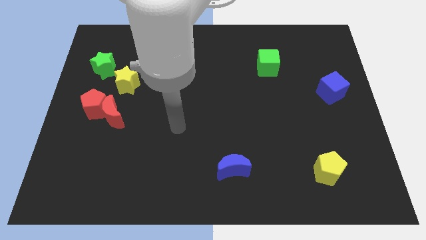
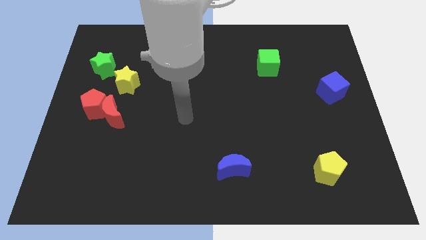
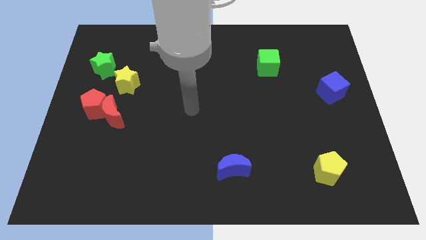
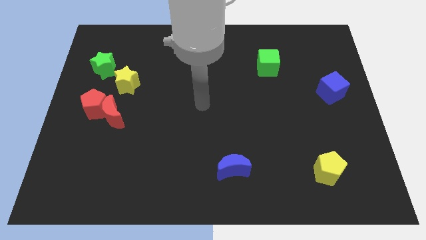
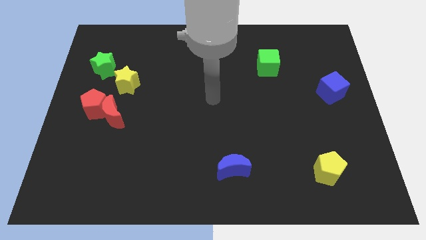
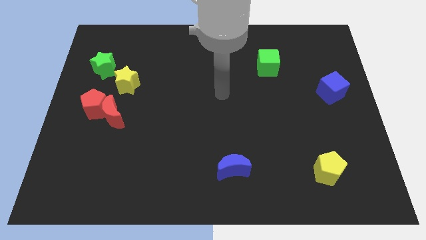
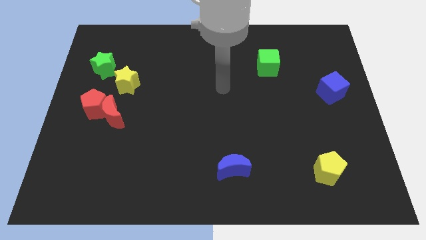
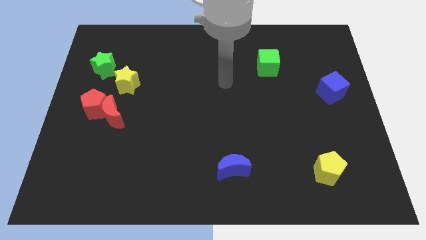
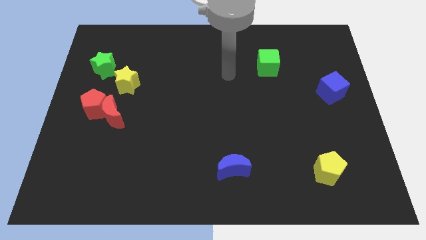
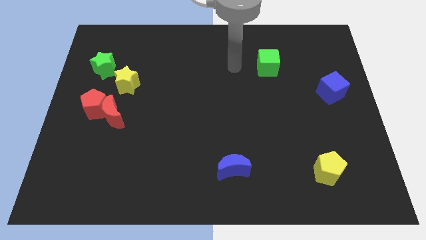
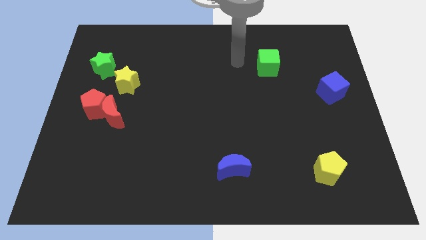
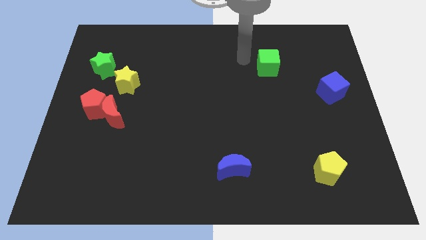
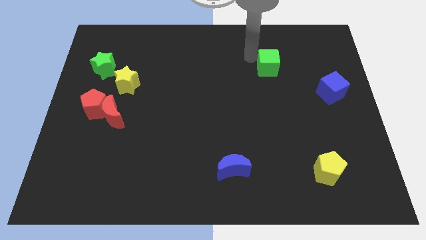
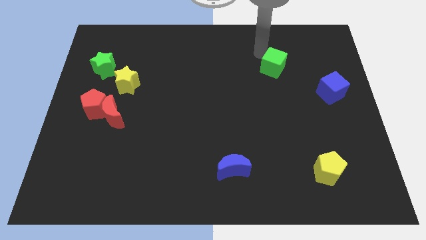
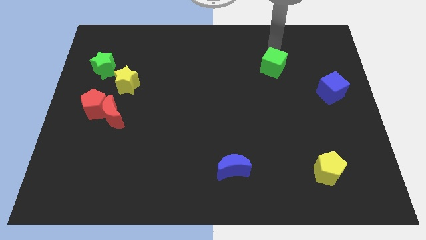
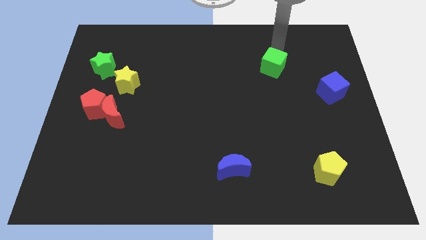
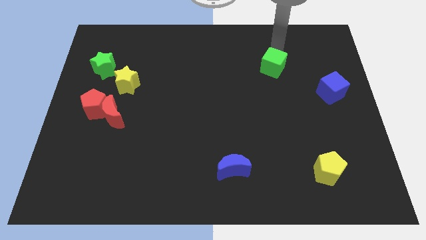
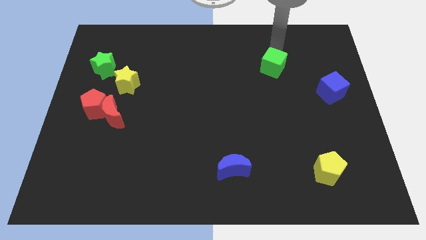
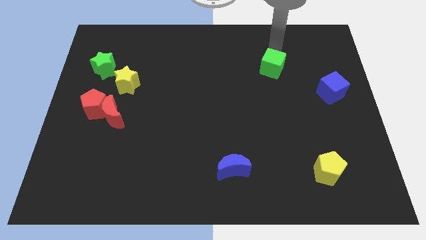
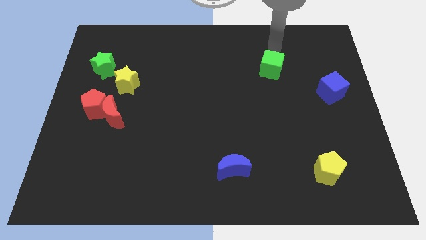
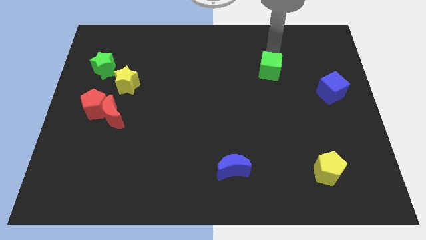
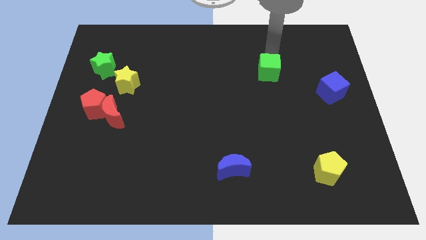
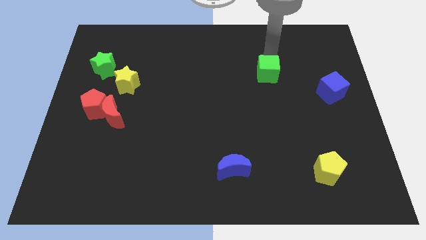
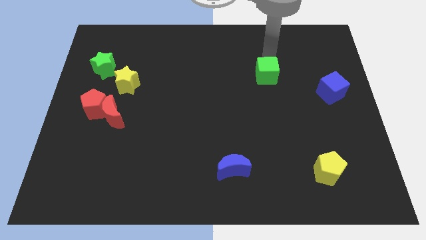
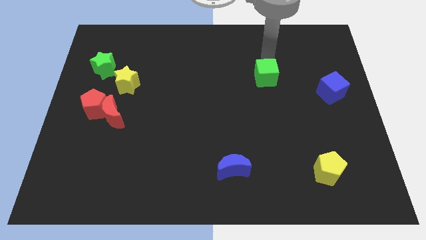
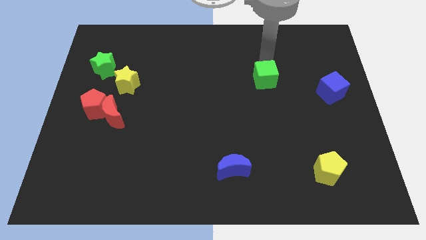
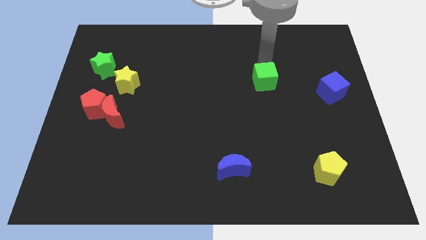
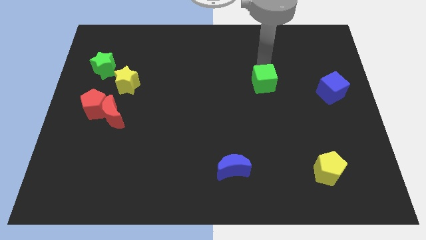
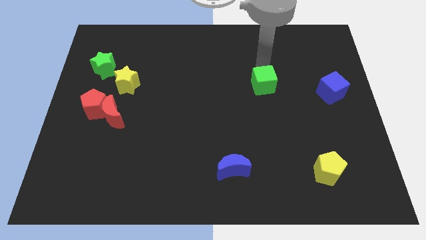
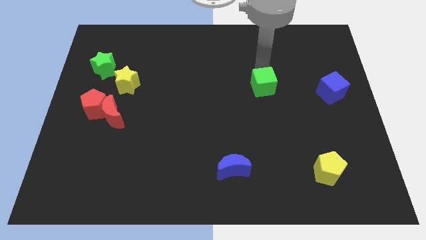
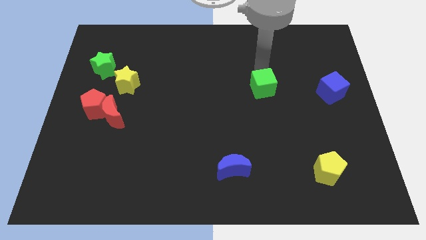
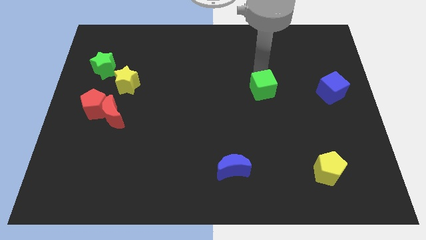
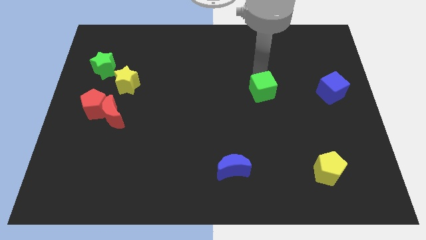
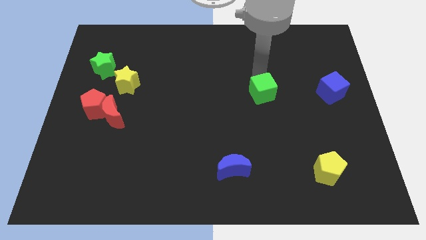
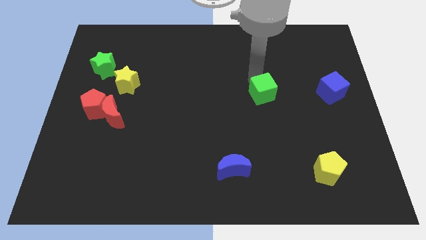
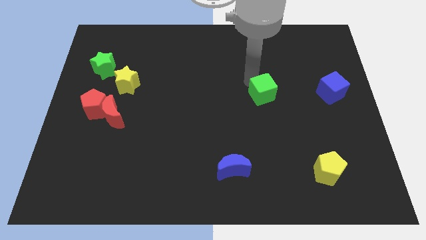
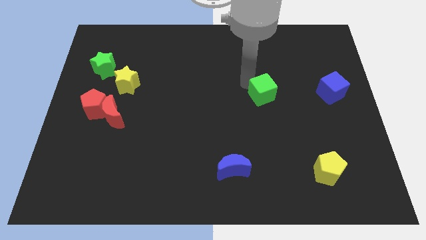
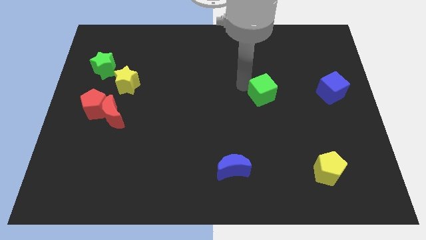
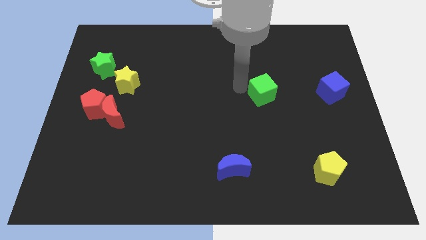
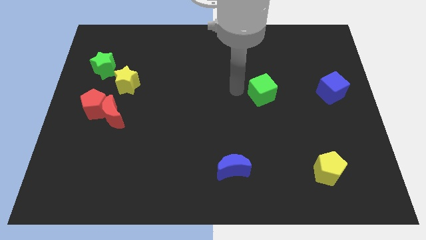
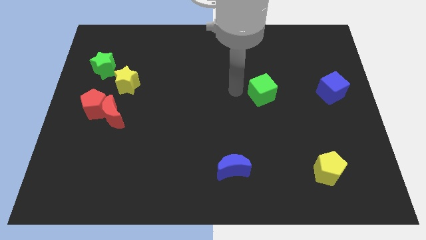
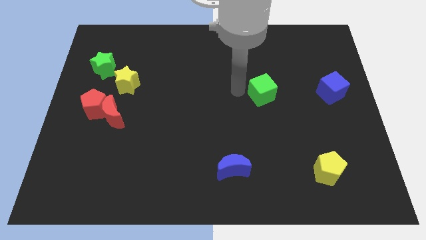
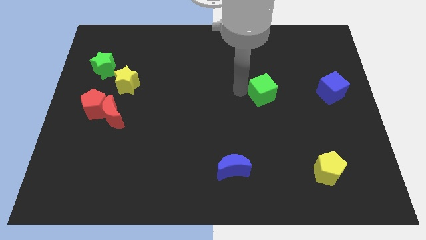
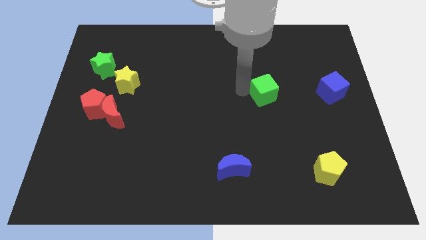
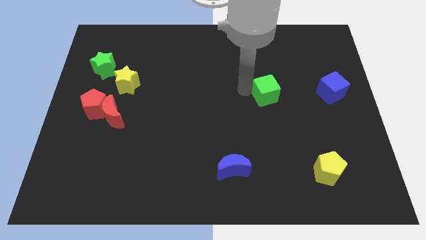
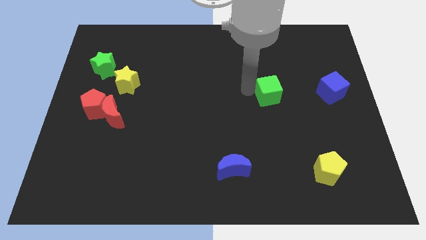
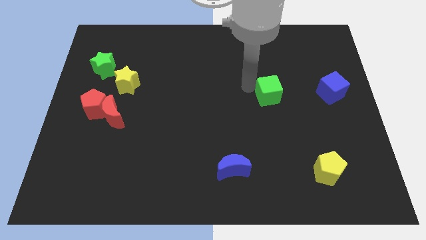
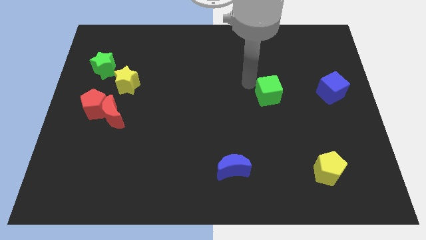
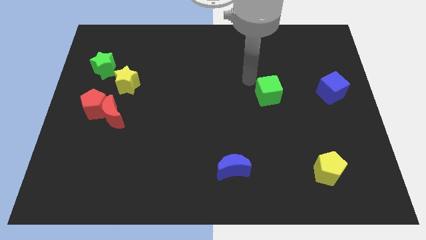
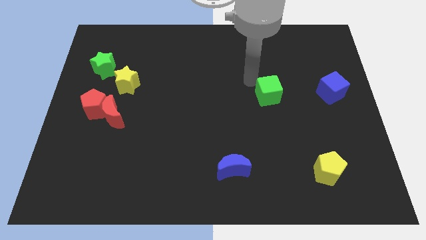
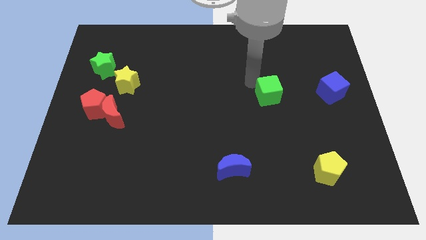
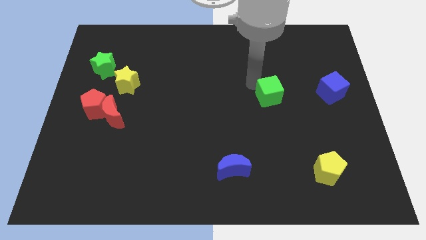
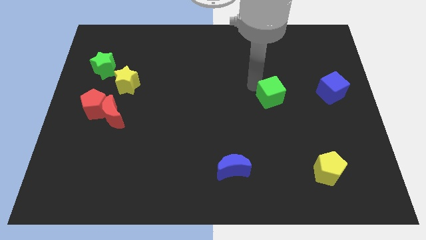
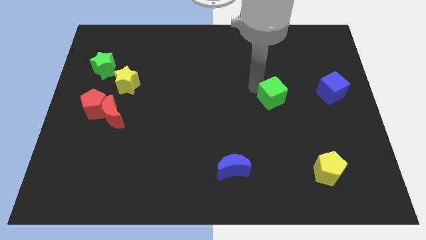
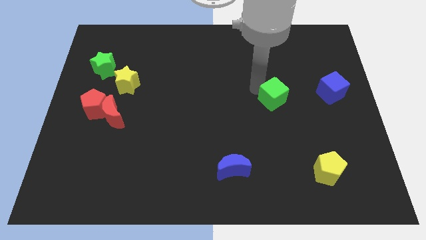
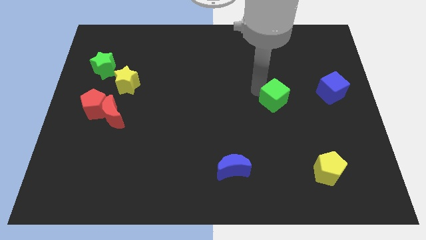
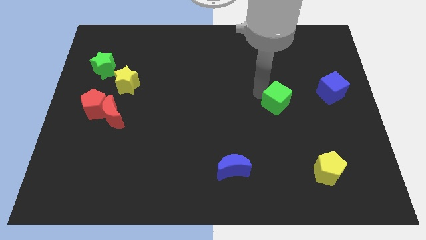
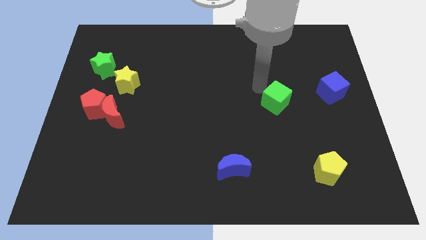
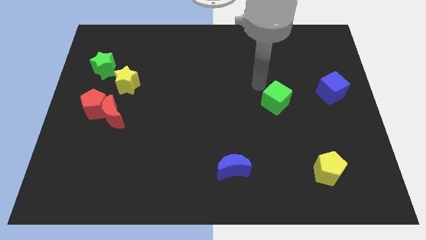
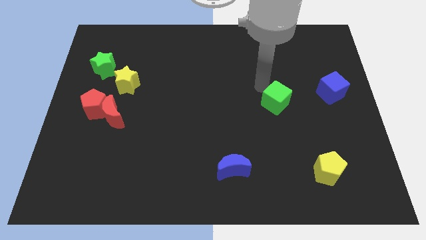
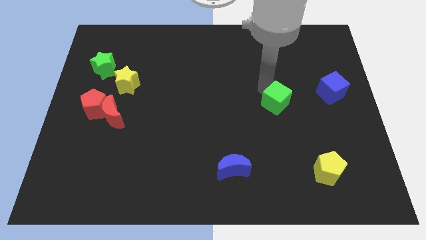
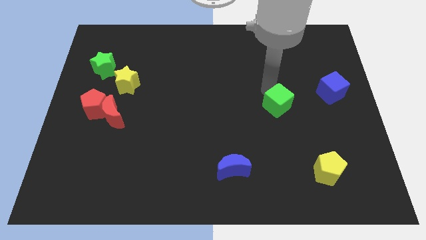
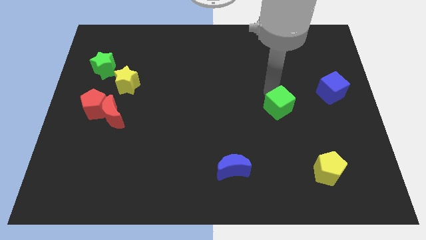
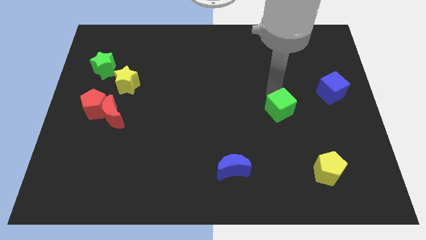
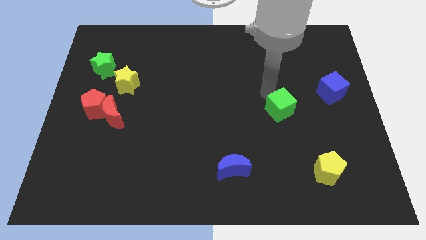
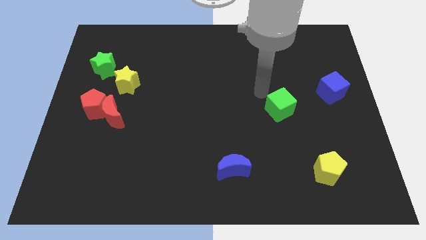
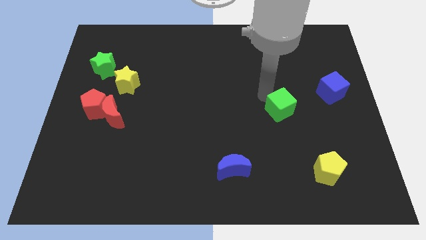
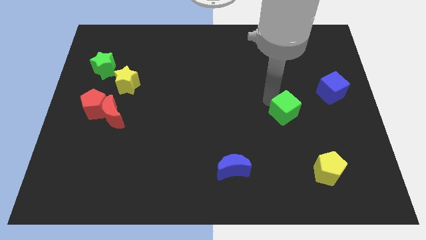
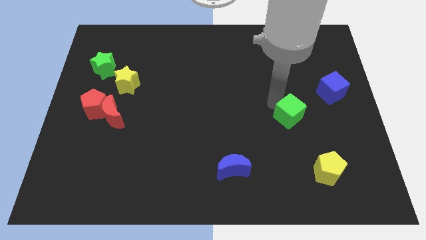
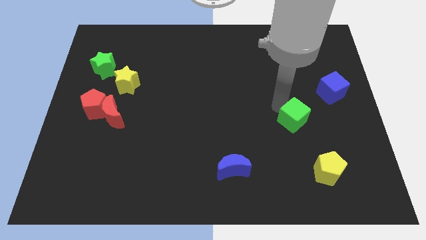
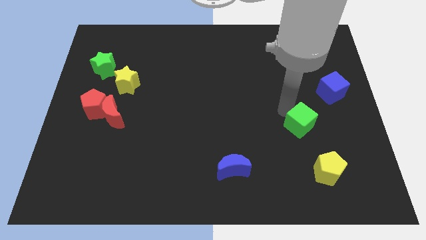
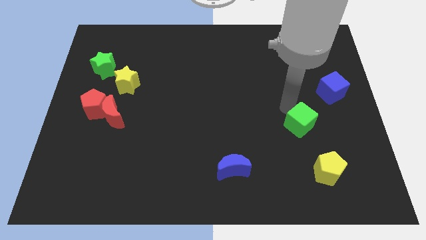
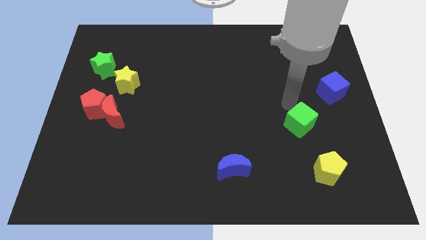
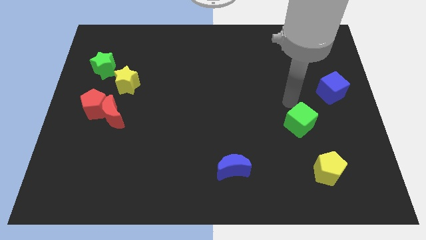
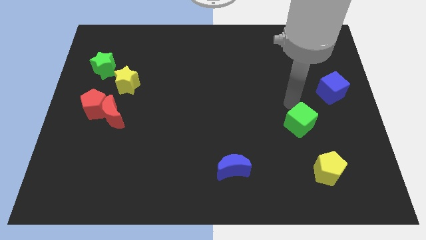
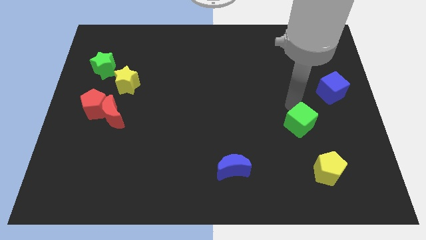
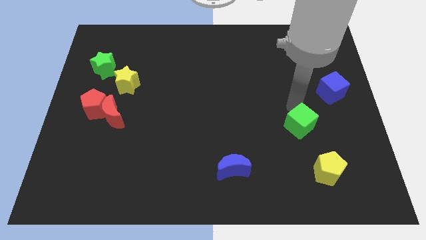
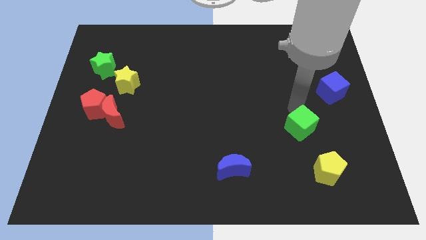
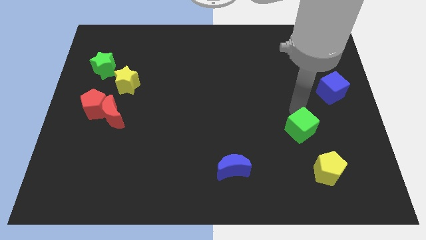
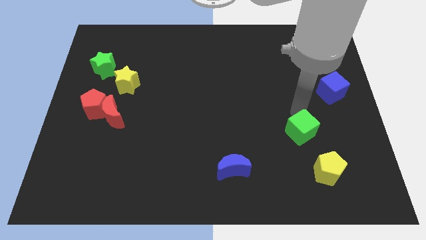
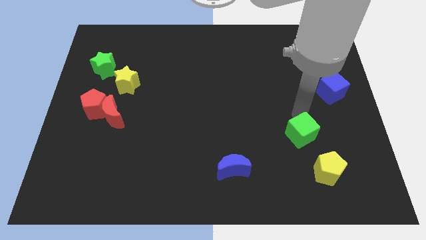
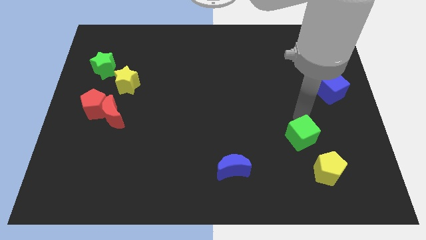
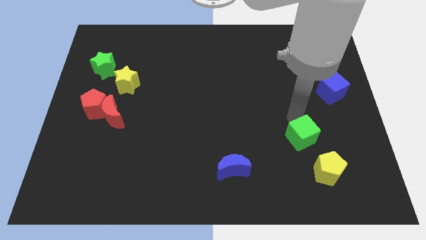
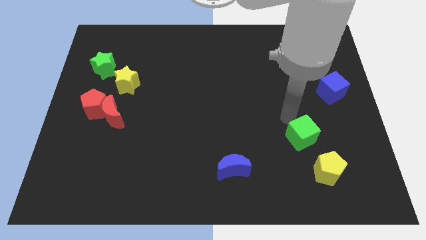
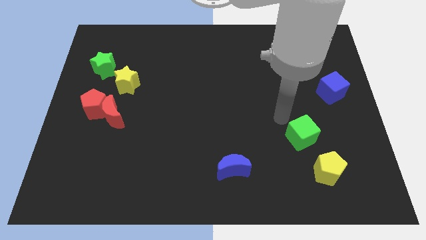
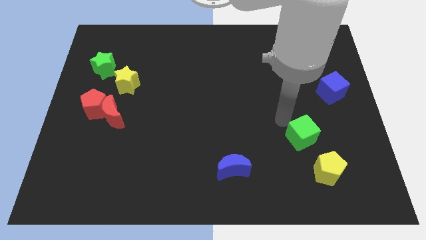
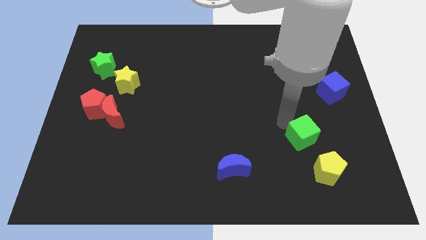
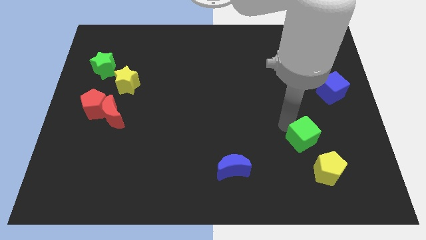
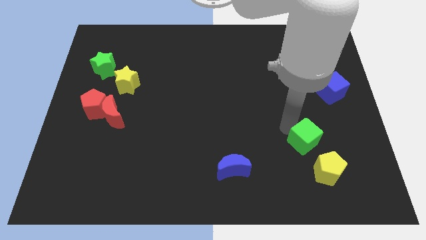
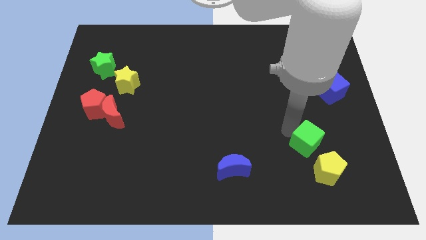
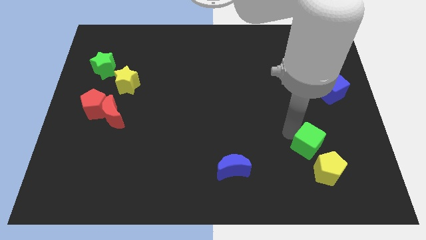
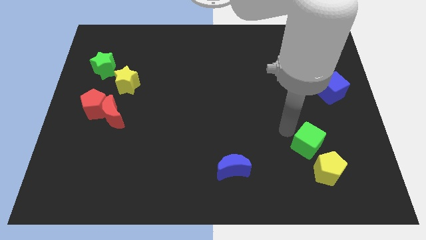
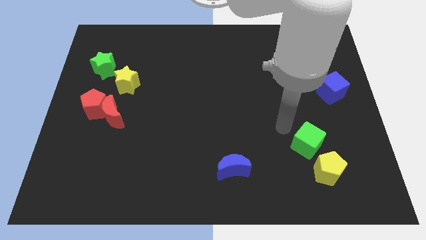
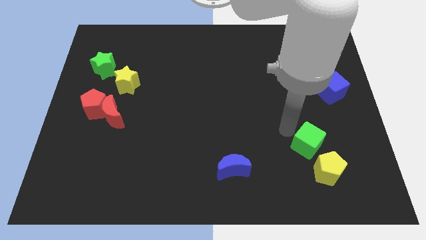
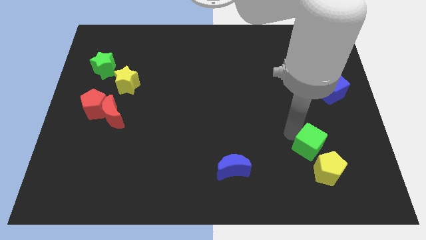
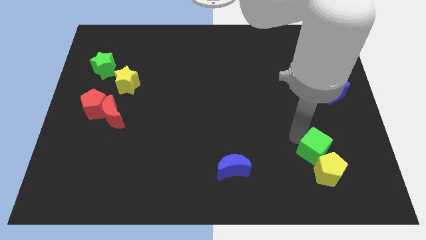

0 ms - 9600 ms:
push the green cube next to the yellow pentagon
